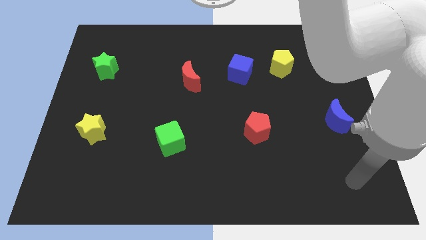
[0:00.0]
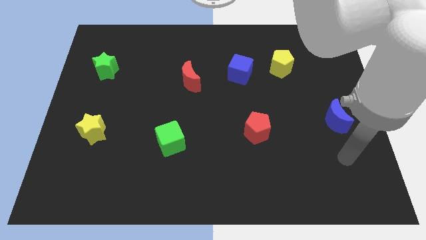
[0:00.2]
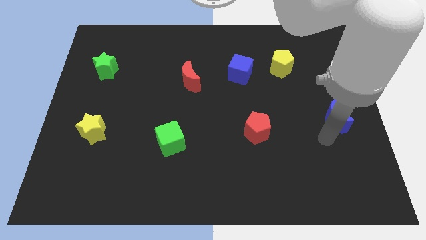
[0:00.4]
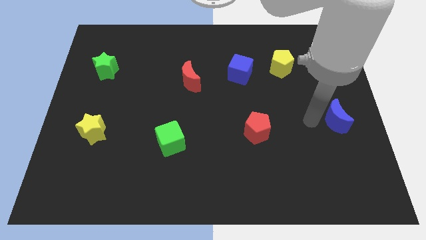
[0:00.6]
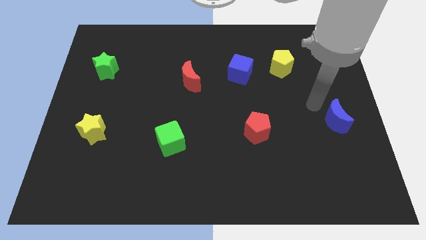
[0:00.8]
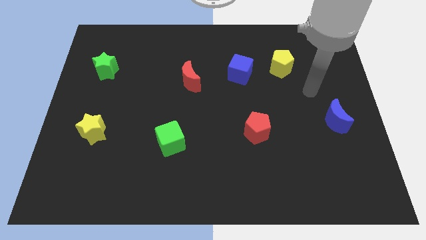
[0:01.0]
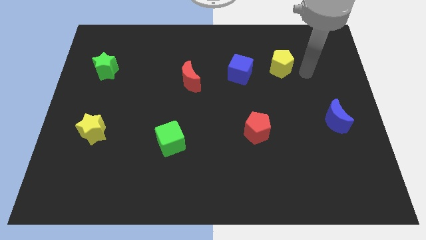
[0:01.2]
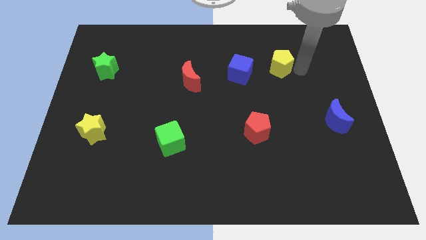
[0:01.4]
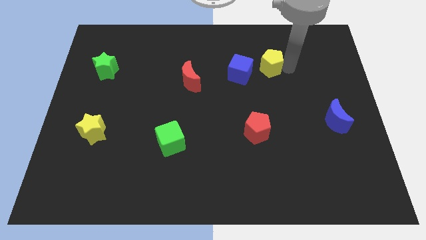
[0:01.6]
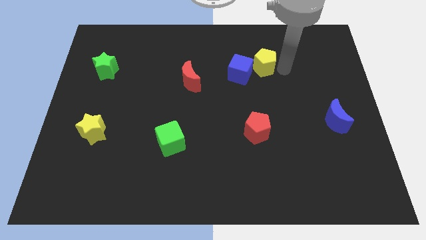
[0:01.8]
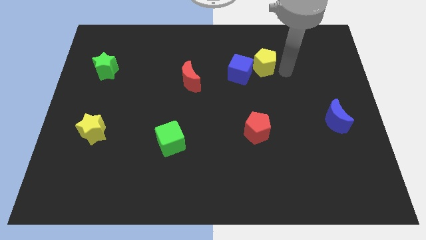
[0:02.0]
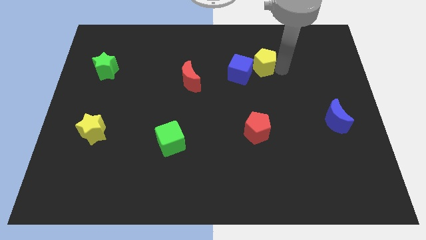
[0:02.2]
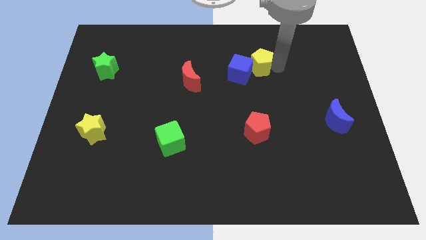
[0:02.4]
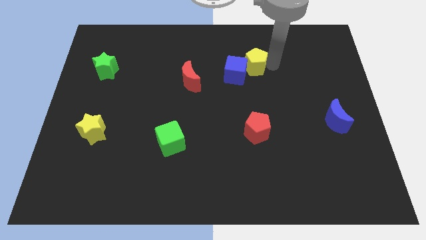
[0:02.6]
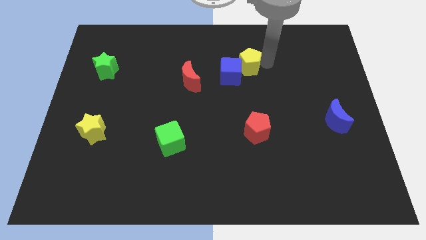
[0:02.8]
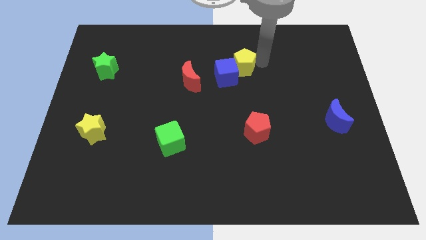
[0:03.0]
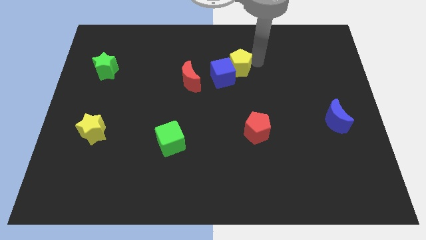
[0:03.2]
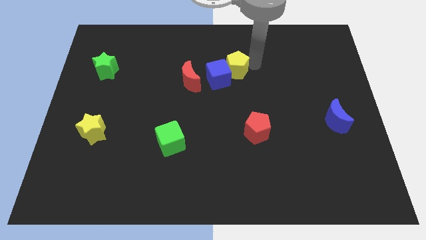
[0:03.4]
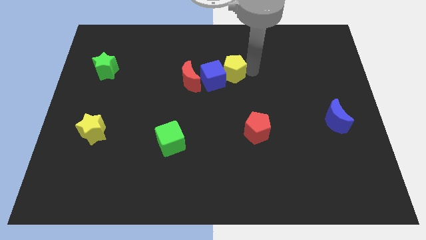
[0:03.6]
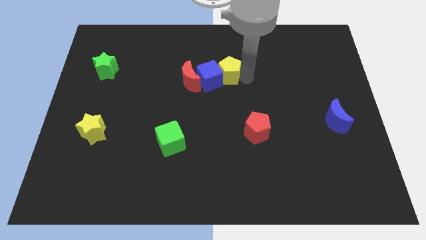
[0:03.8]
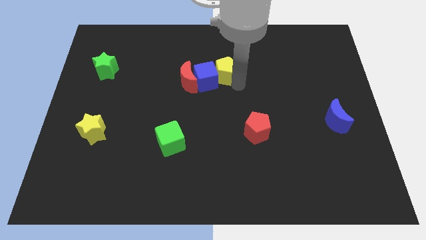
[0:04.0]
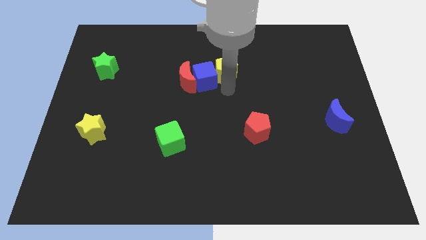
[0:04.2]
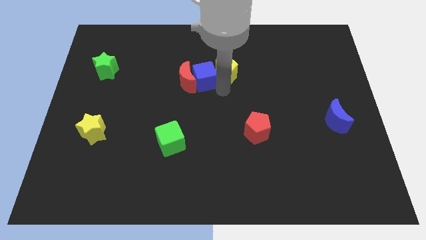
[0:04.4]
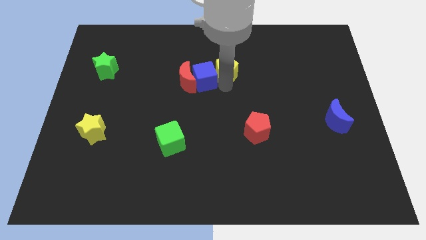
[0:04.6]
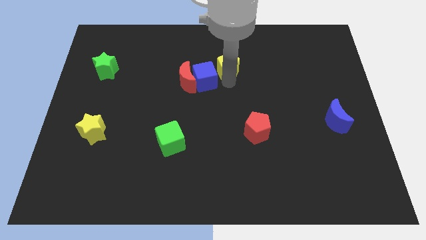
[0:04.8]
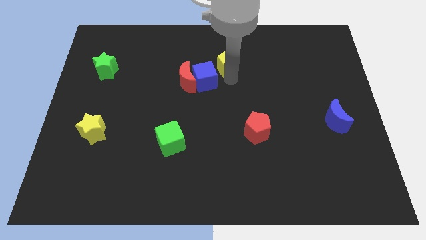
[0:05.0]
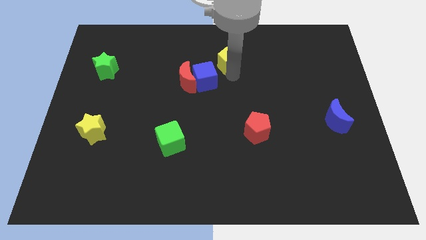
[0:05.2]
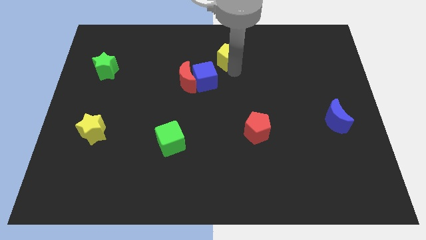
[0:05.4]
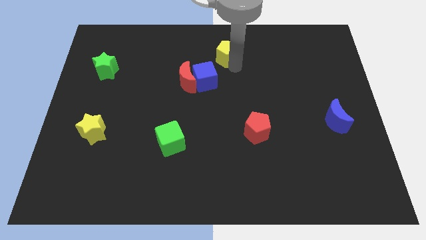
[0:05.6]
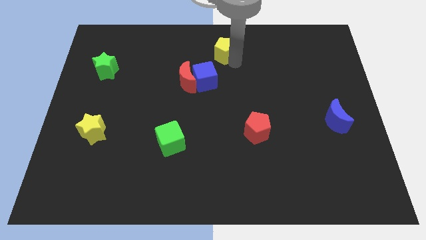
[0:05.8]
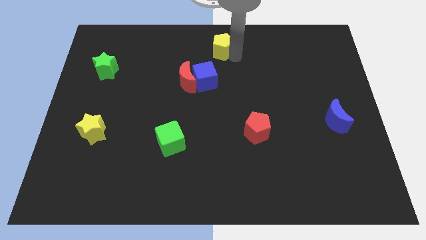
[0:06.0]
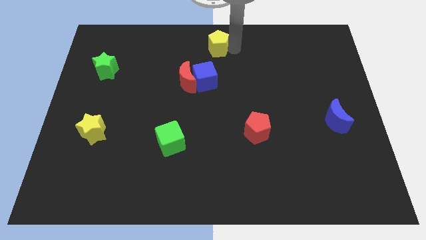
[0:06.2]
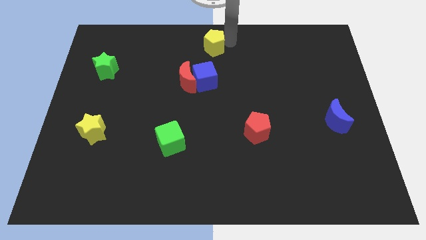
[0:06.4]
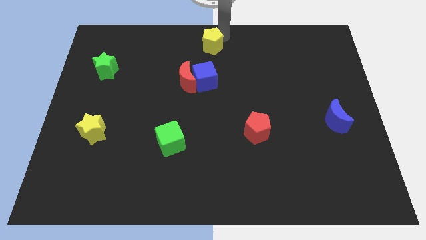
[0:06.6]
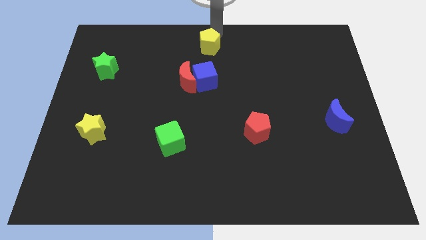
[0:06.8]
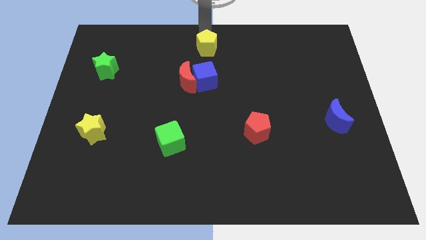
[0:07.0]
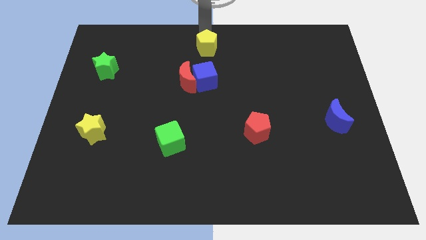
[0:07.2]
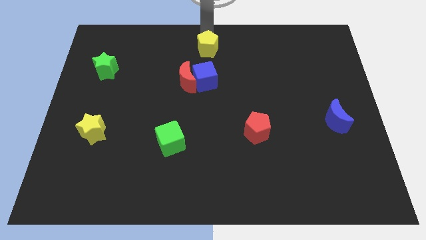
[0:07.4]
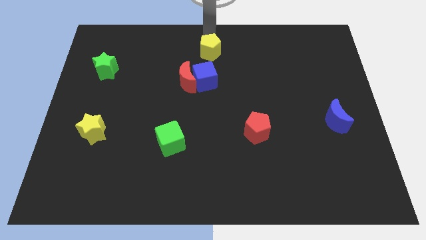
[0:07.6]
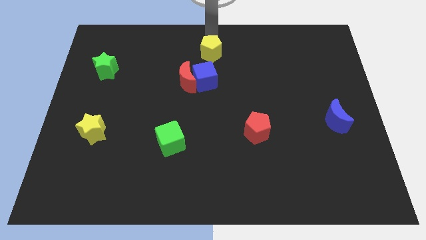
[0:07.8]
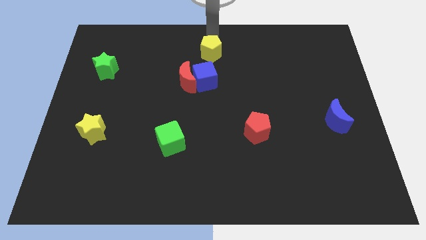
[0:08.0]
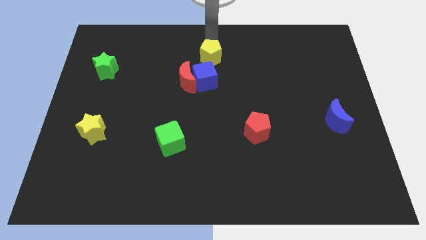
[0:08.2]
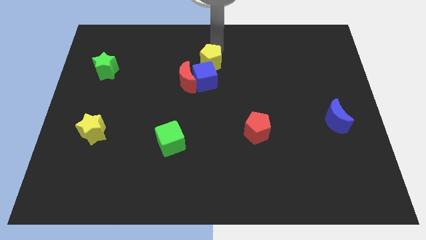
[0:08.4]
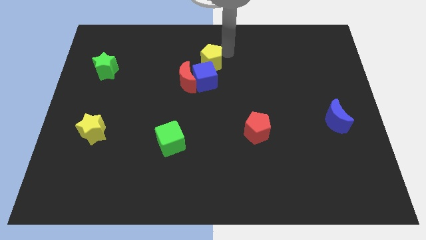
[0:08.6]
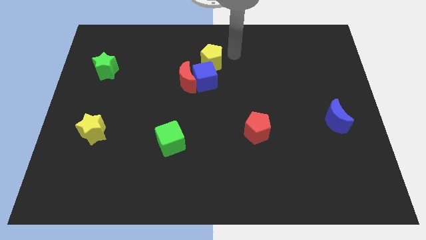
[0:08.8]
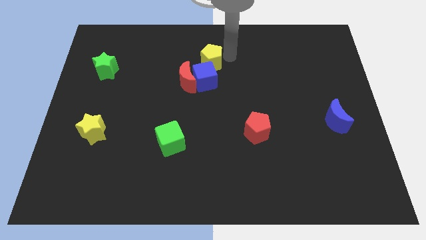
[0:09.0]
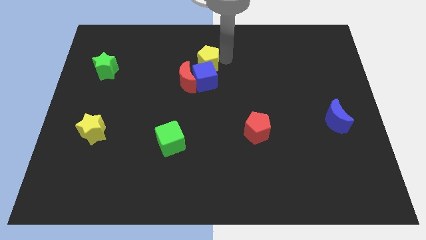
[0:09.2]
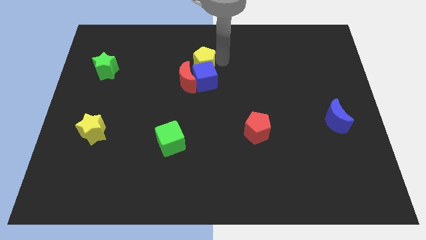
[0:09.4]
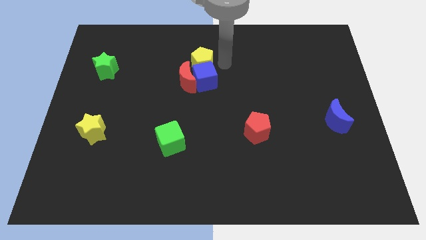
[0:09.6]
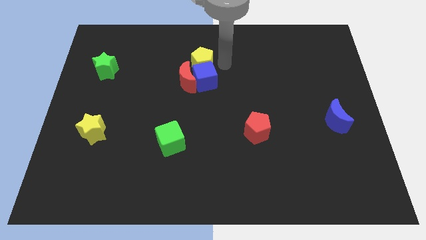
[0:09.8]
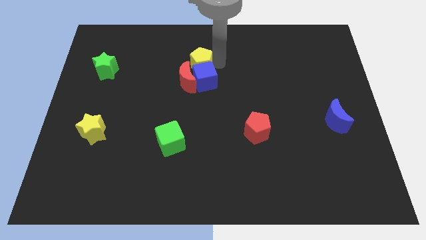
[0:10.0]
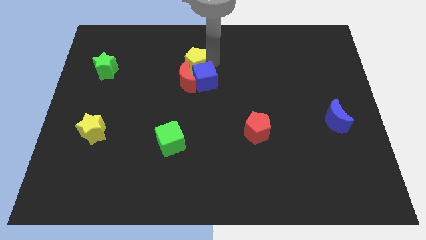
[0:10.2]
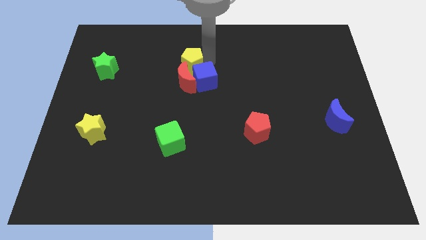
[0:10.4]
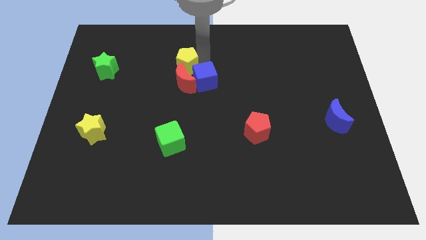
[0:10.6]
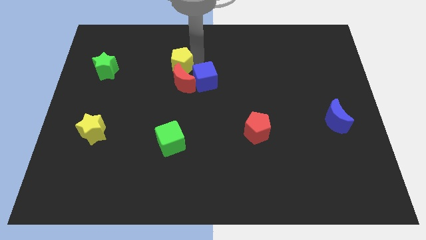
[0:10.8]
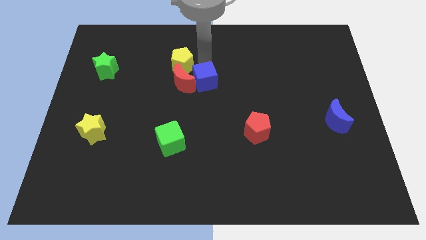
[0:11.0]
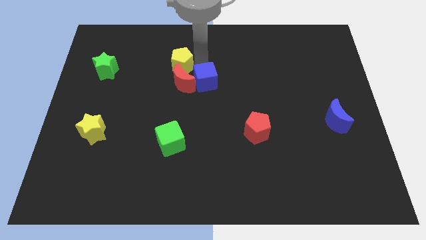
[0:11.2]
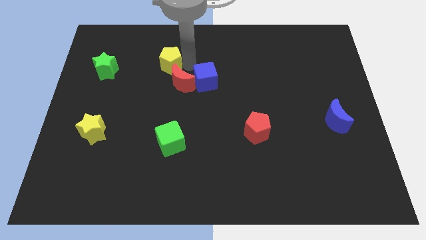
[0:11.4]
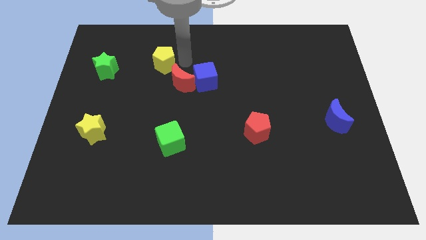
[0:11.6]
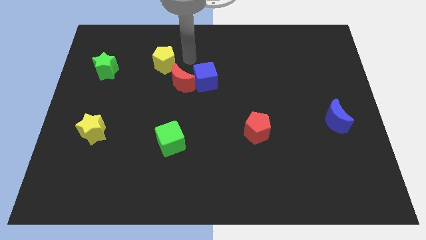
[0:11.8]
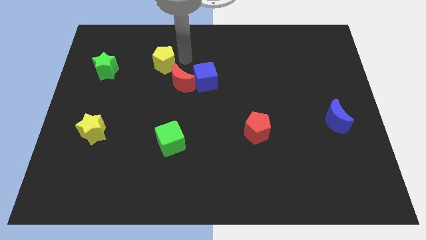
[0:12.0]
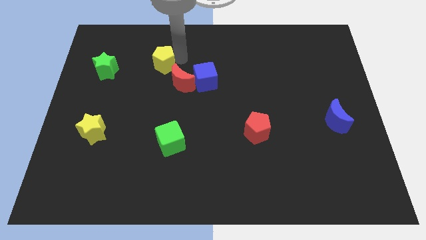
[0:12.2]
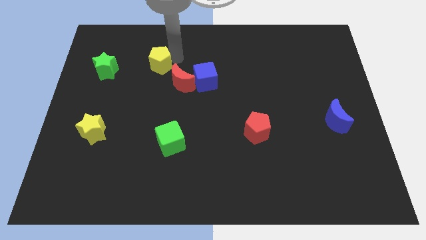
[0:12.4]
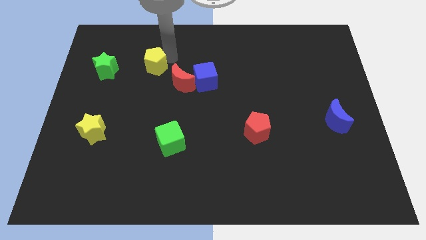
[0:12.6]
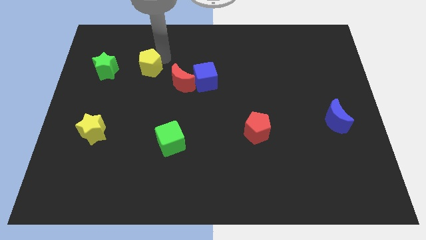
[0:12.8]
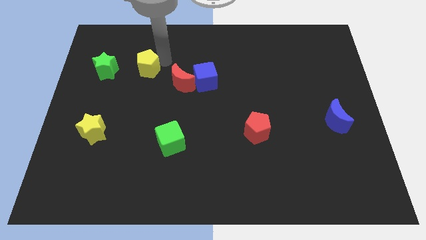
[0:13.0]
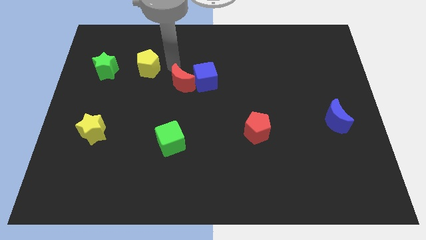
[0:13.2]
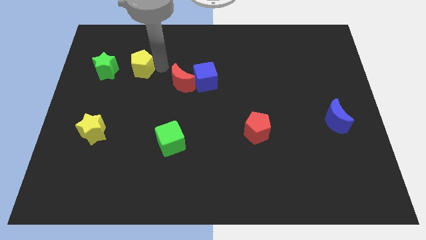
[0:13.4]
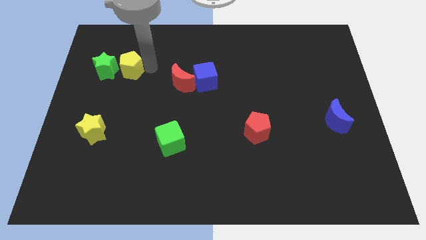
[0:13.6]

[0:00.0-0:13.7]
put the yellow pentagon to the green star

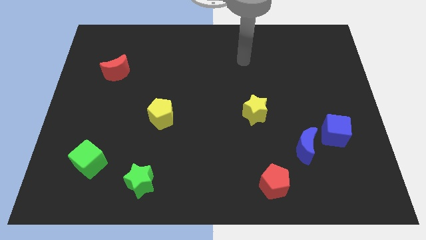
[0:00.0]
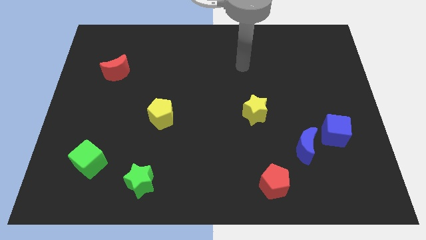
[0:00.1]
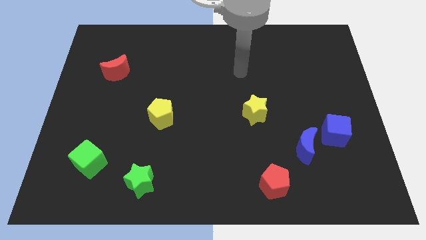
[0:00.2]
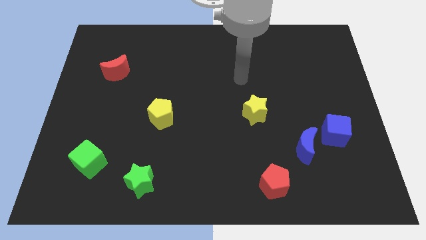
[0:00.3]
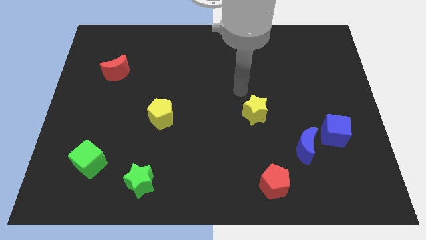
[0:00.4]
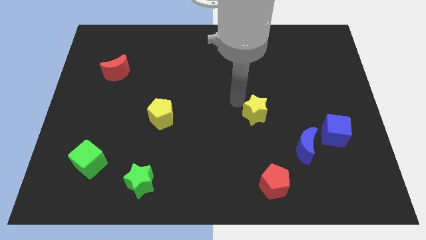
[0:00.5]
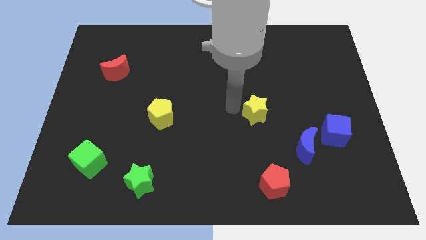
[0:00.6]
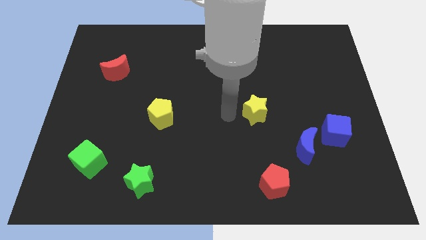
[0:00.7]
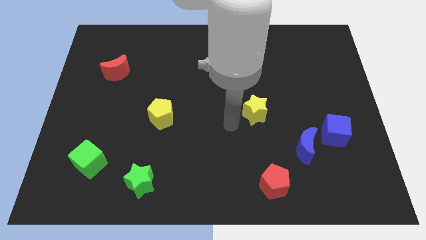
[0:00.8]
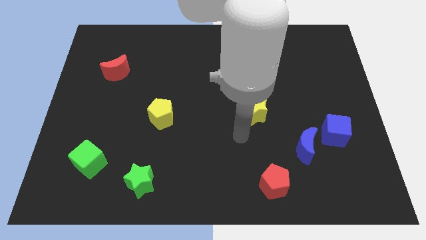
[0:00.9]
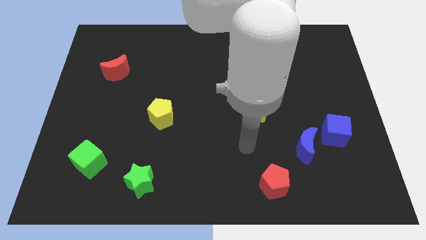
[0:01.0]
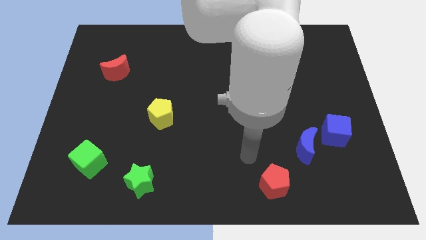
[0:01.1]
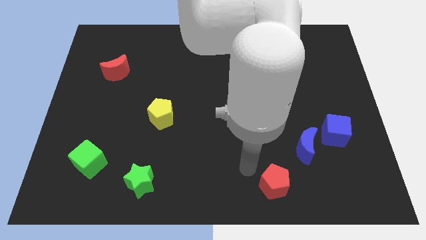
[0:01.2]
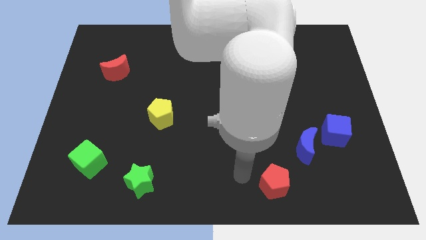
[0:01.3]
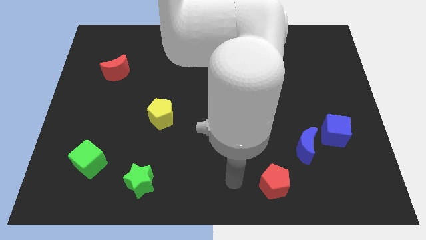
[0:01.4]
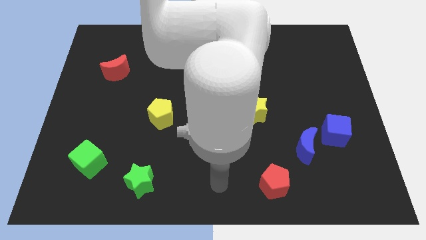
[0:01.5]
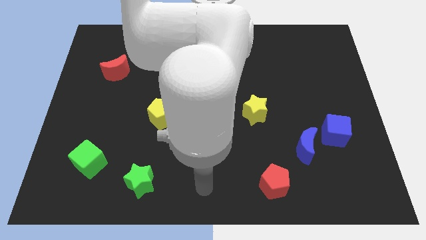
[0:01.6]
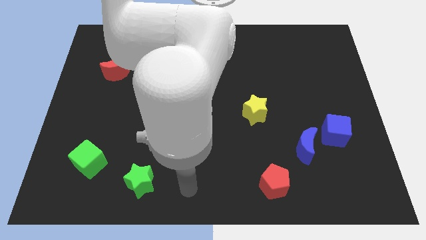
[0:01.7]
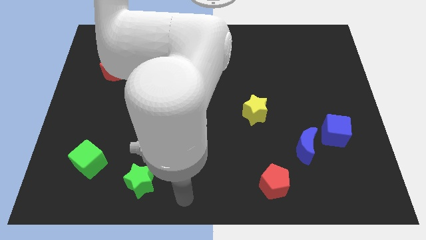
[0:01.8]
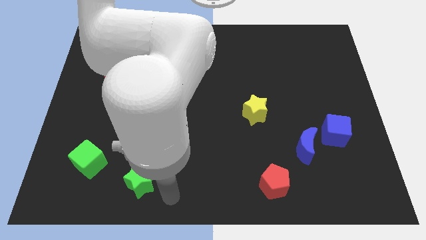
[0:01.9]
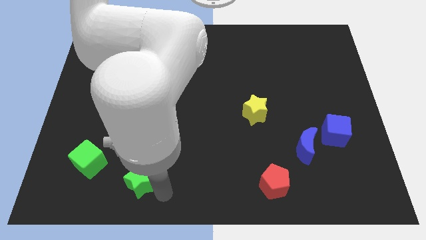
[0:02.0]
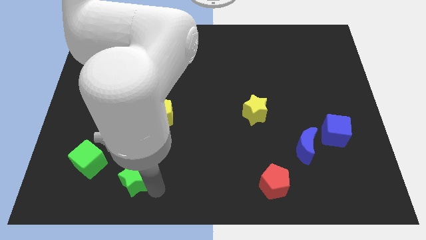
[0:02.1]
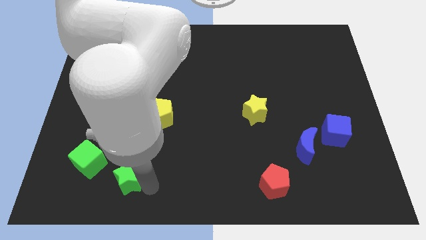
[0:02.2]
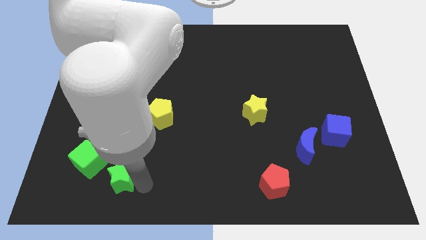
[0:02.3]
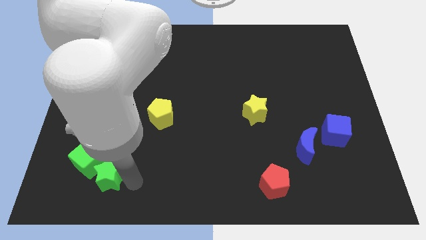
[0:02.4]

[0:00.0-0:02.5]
move the green star next to the green cube
